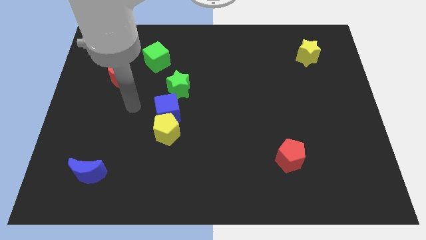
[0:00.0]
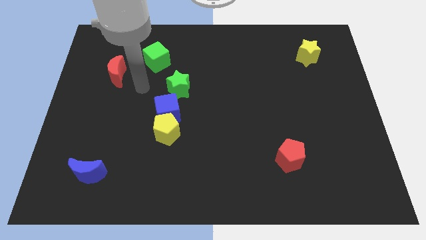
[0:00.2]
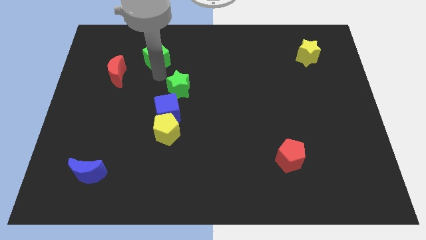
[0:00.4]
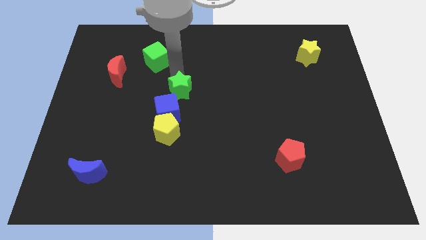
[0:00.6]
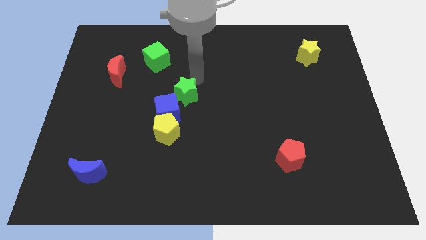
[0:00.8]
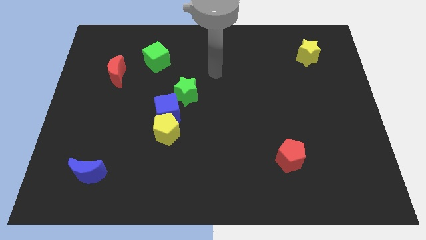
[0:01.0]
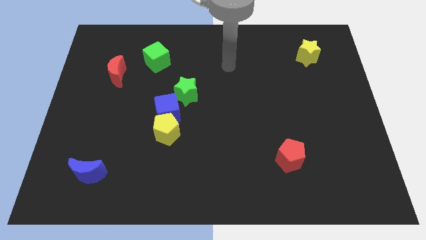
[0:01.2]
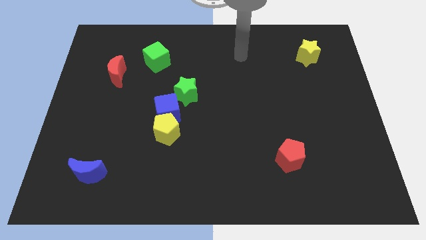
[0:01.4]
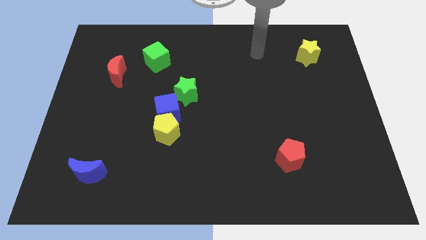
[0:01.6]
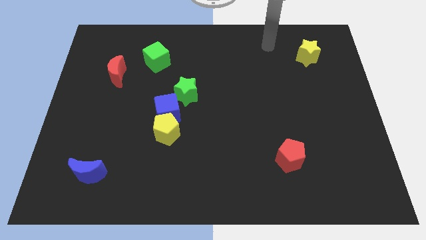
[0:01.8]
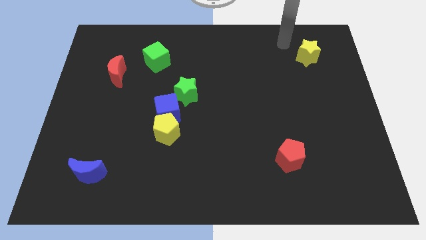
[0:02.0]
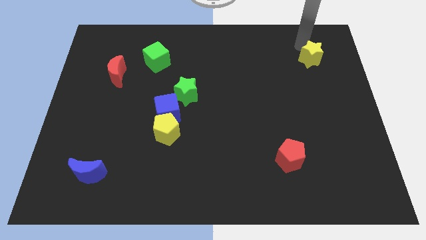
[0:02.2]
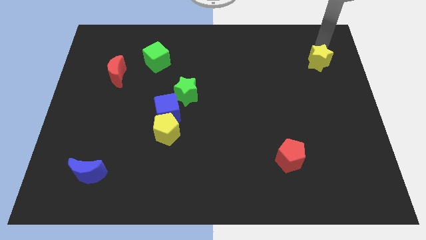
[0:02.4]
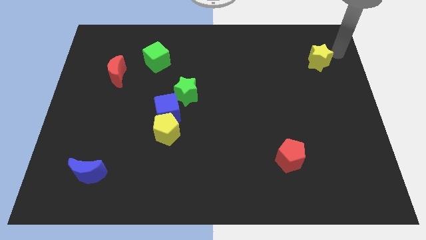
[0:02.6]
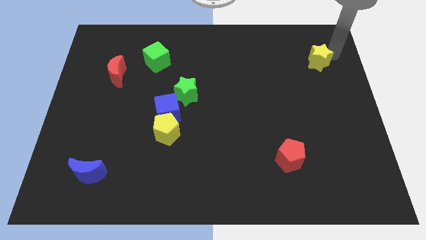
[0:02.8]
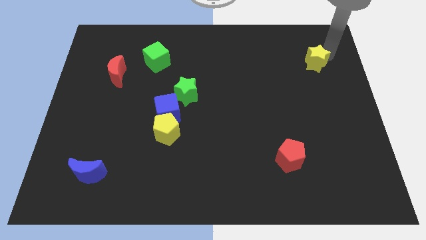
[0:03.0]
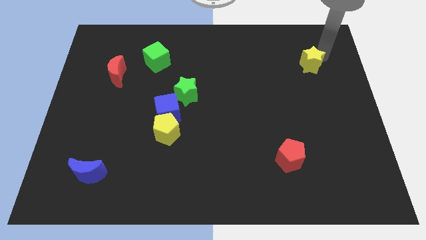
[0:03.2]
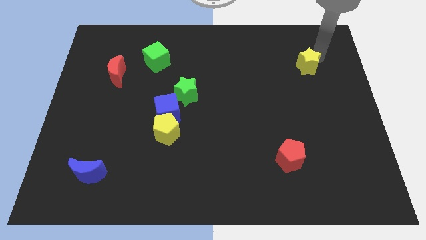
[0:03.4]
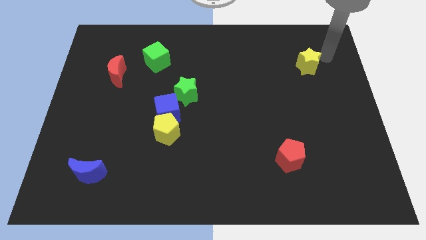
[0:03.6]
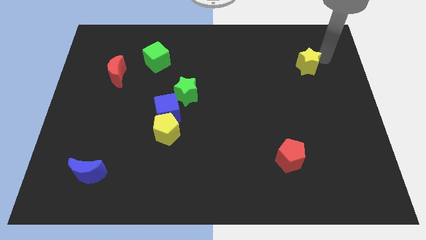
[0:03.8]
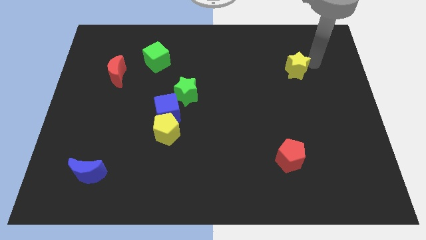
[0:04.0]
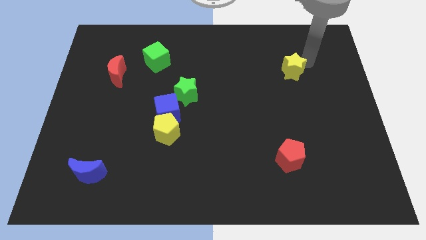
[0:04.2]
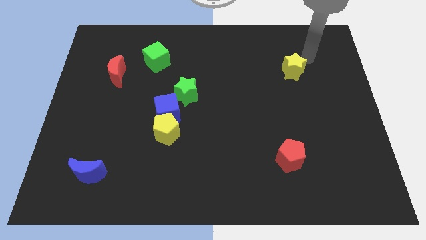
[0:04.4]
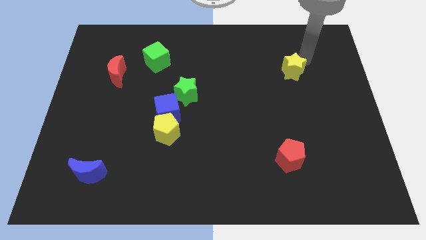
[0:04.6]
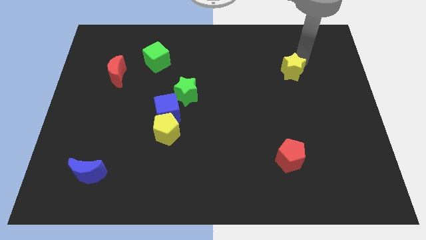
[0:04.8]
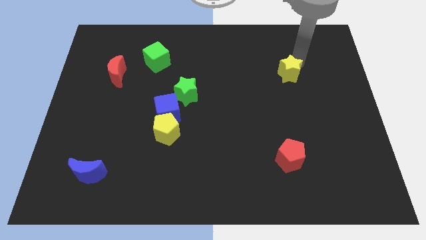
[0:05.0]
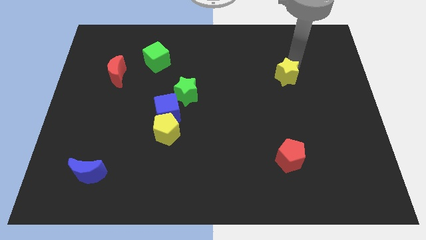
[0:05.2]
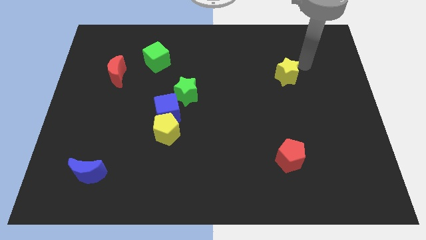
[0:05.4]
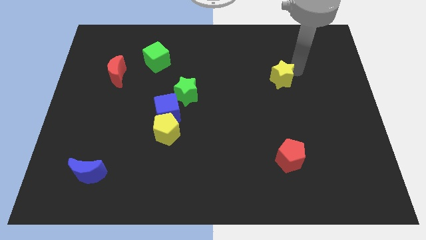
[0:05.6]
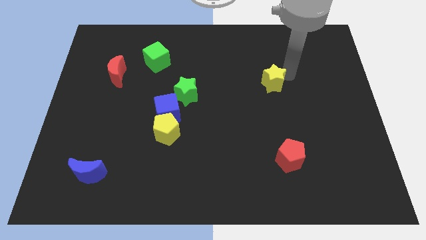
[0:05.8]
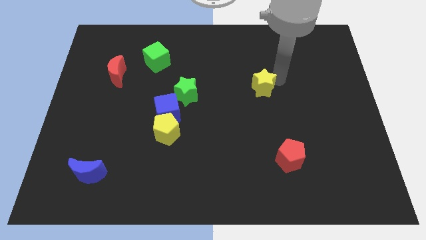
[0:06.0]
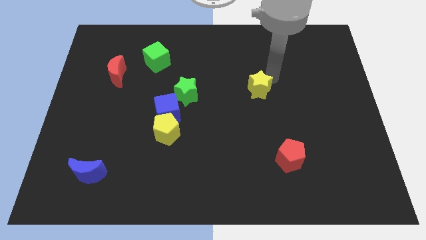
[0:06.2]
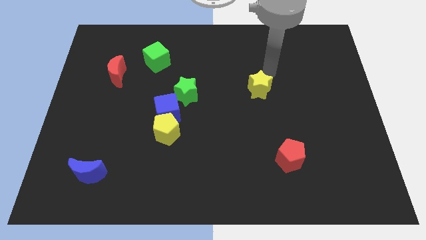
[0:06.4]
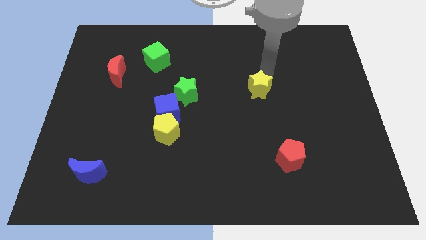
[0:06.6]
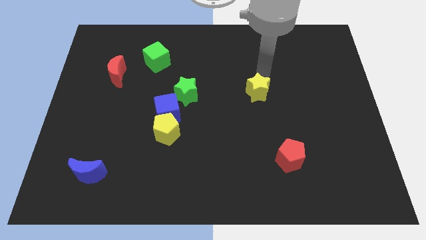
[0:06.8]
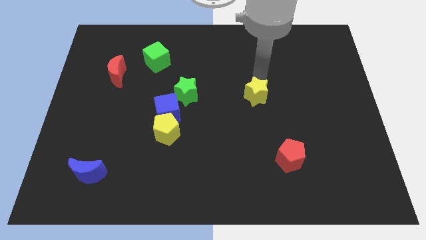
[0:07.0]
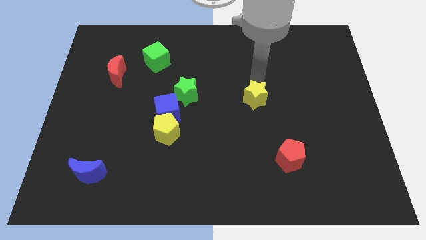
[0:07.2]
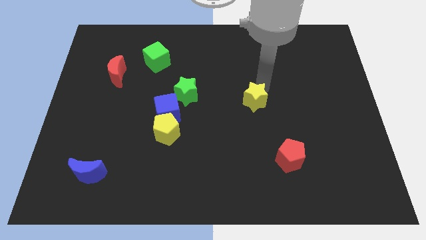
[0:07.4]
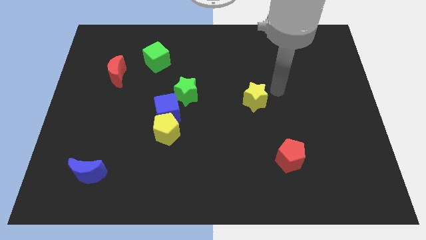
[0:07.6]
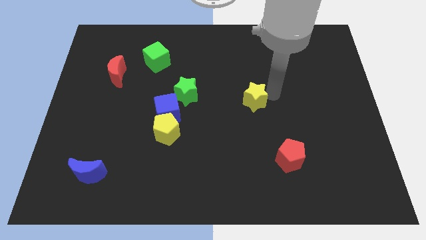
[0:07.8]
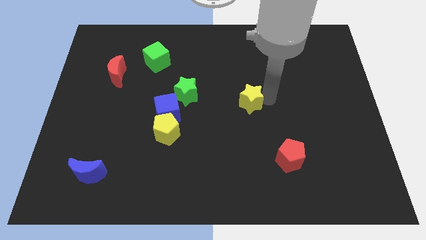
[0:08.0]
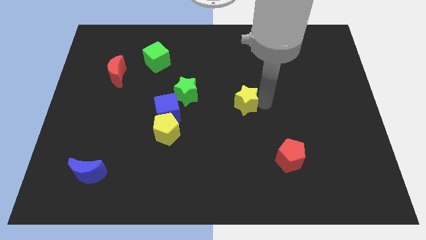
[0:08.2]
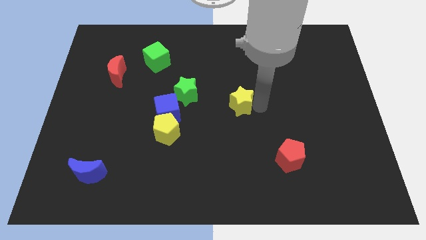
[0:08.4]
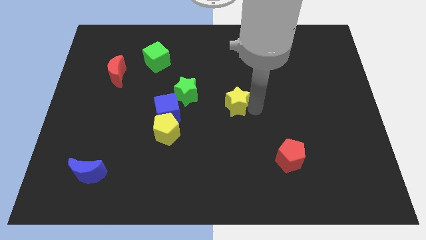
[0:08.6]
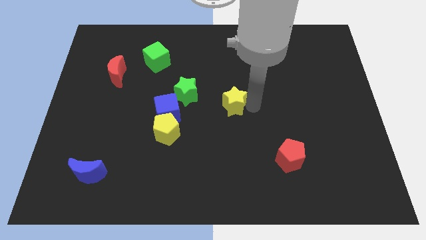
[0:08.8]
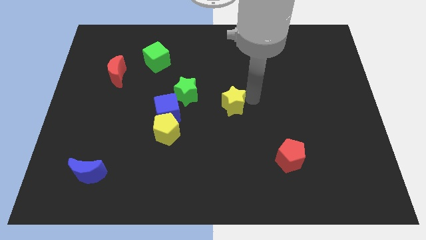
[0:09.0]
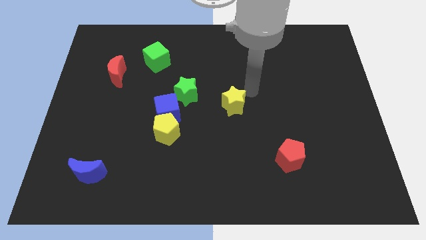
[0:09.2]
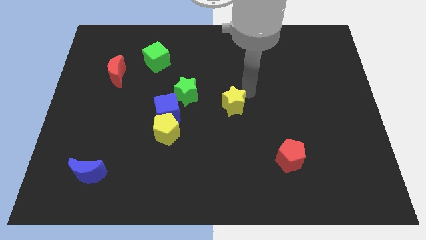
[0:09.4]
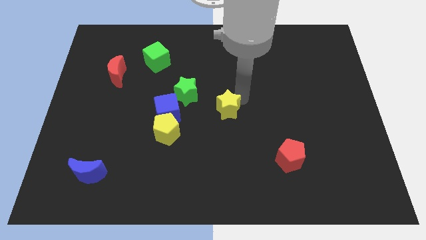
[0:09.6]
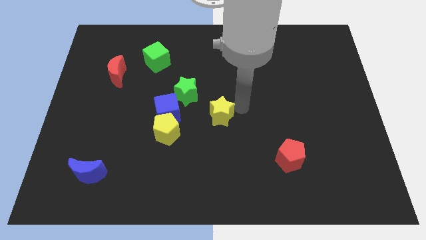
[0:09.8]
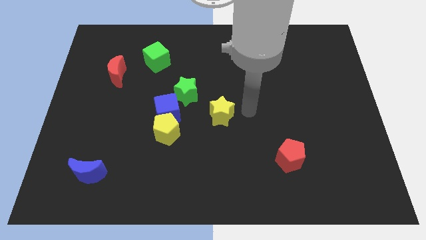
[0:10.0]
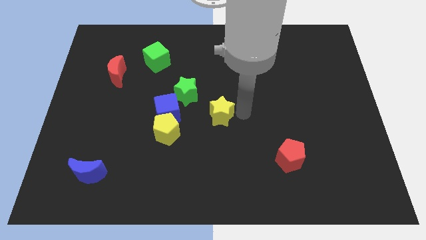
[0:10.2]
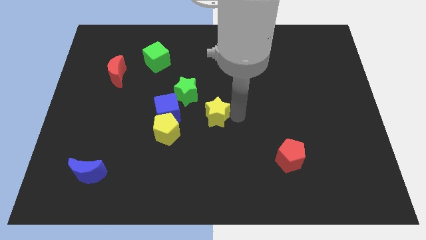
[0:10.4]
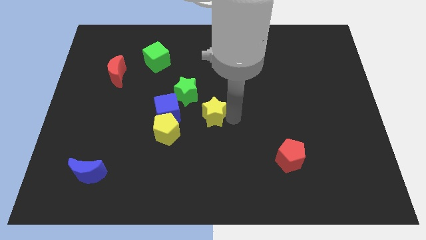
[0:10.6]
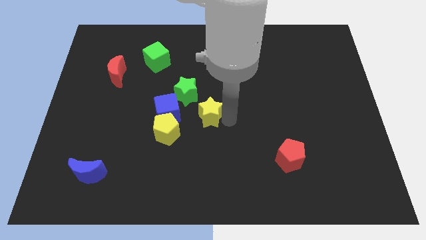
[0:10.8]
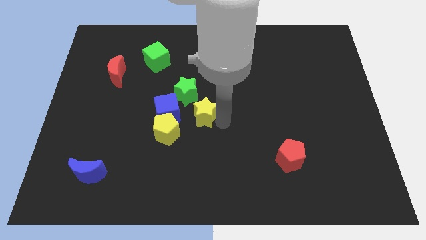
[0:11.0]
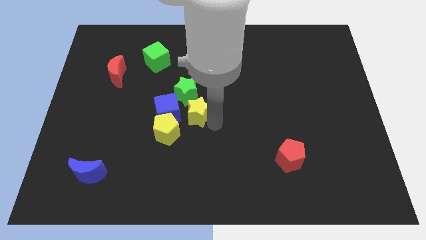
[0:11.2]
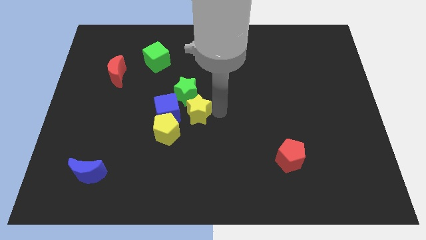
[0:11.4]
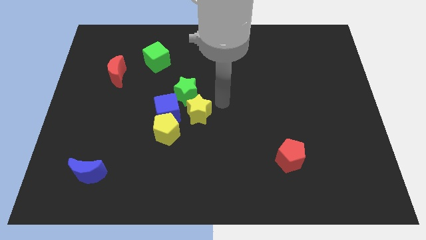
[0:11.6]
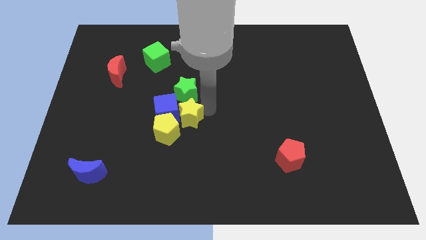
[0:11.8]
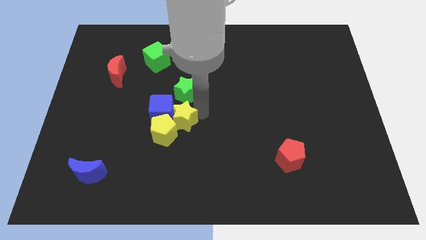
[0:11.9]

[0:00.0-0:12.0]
put the yellow star towards the yellow pentagon

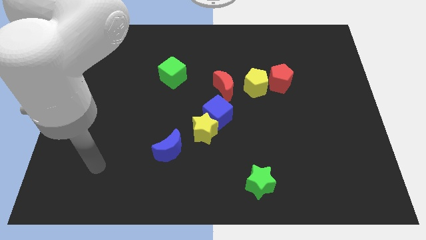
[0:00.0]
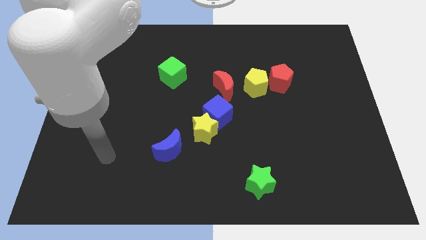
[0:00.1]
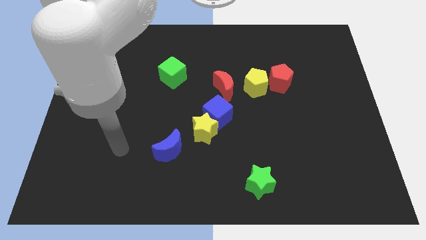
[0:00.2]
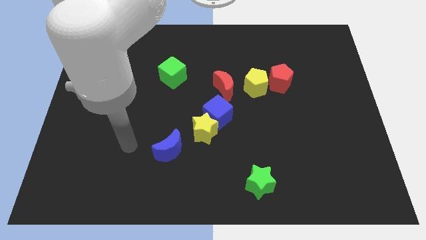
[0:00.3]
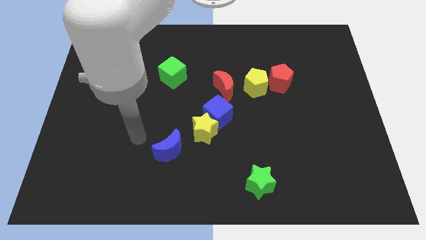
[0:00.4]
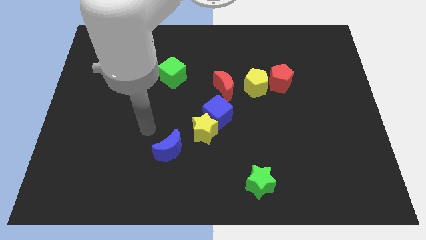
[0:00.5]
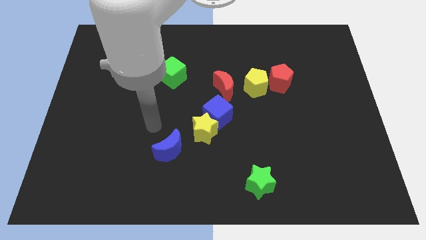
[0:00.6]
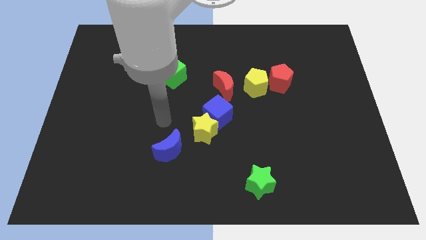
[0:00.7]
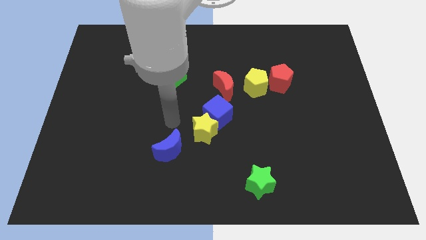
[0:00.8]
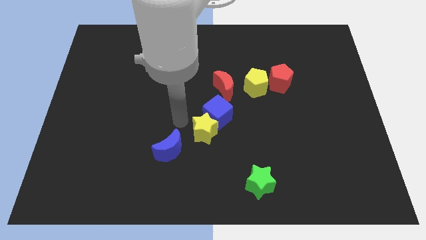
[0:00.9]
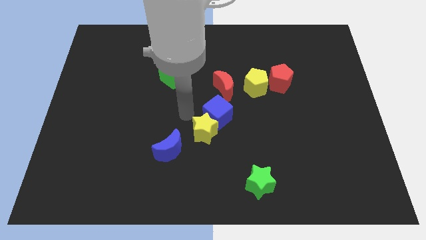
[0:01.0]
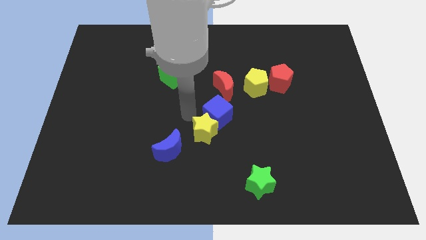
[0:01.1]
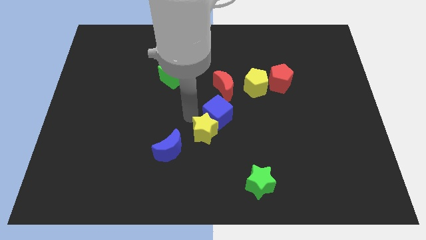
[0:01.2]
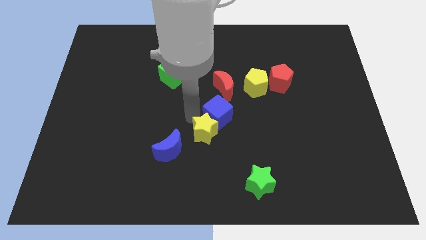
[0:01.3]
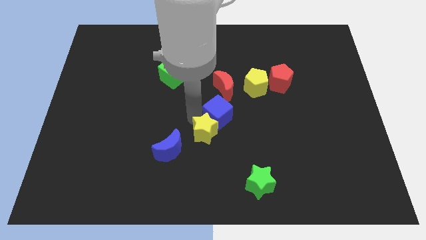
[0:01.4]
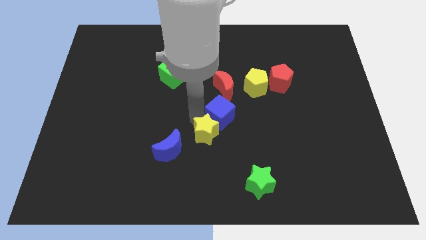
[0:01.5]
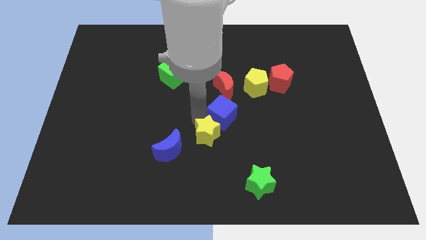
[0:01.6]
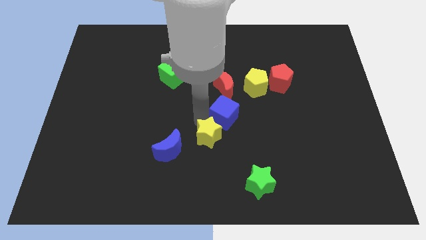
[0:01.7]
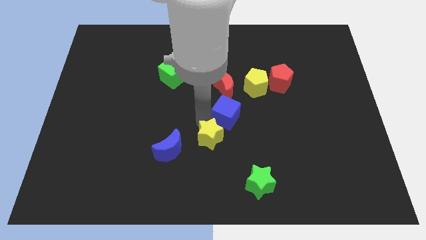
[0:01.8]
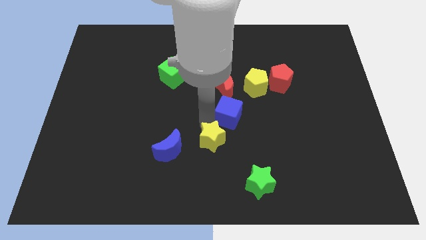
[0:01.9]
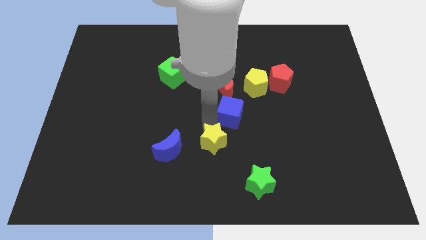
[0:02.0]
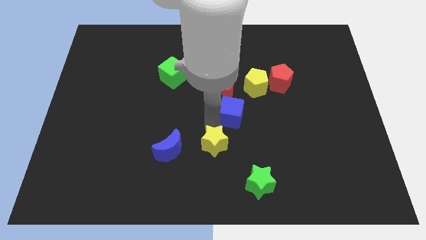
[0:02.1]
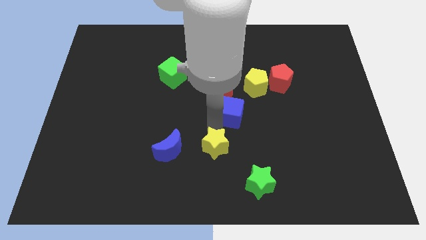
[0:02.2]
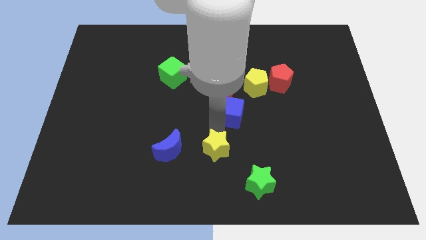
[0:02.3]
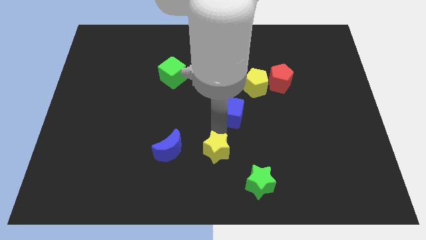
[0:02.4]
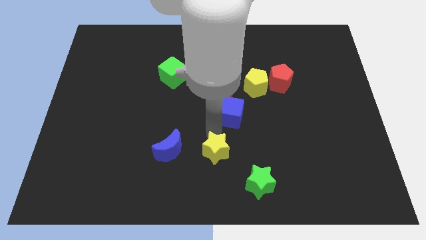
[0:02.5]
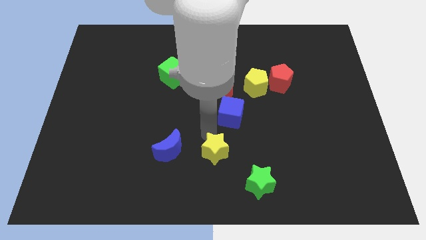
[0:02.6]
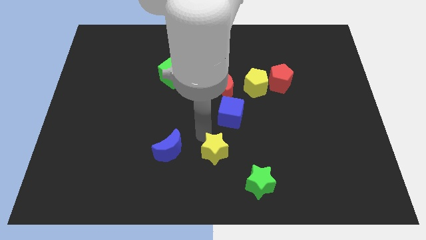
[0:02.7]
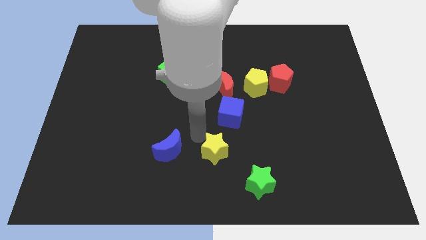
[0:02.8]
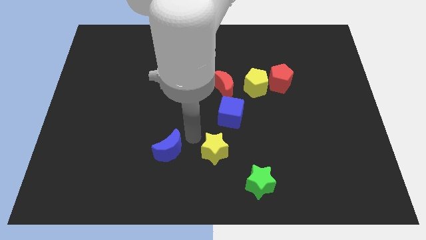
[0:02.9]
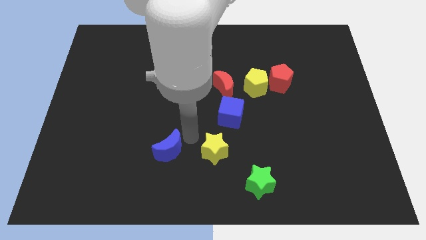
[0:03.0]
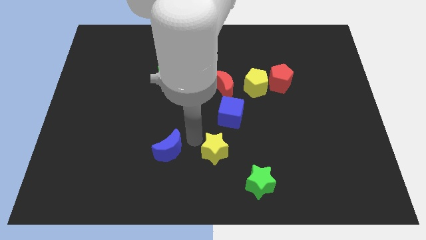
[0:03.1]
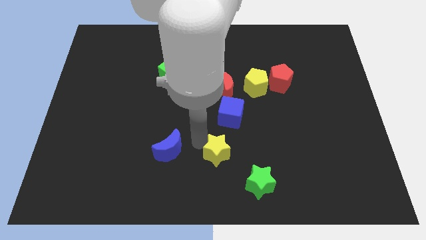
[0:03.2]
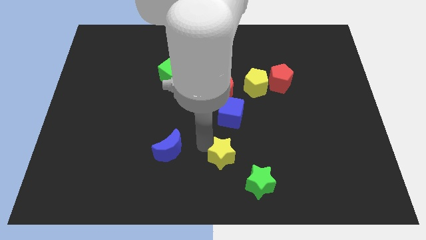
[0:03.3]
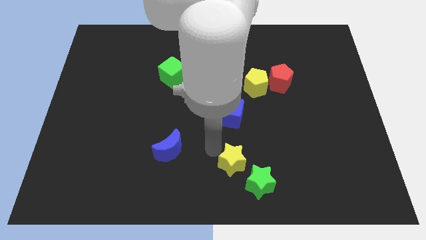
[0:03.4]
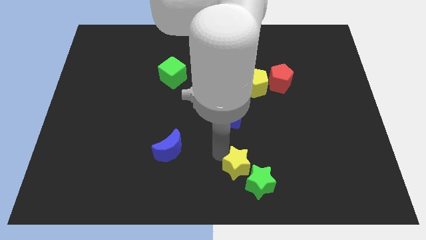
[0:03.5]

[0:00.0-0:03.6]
move the yellow star to the green star
